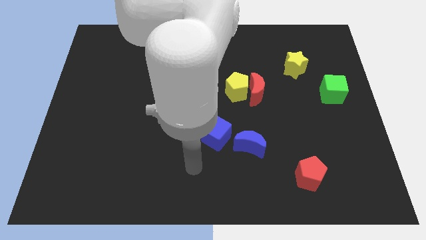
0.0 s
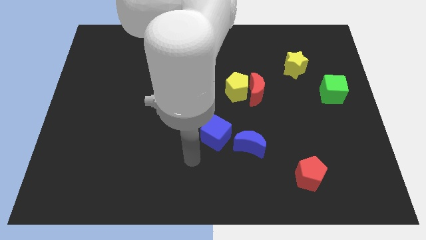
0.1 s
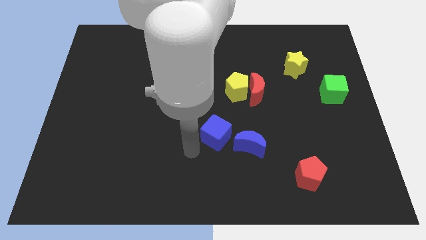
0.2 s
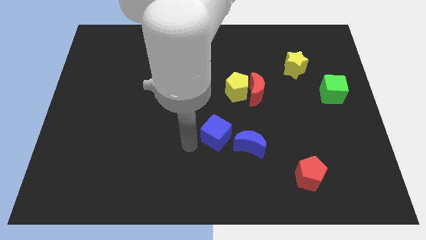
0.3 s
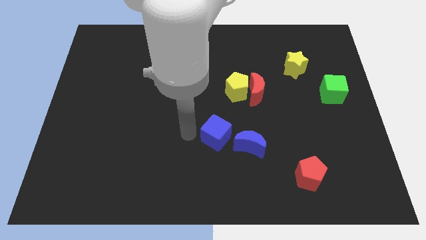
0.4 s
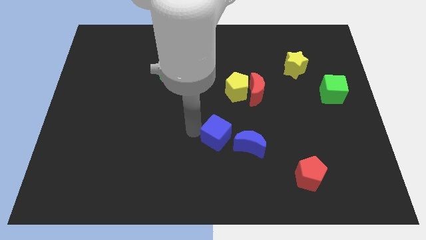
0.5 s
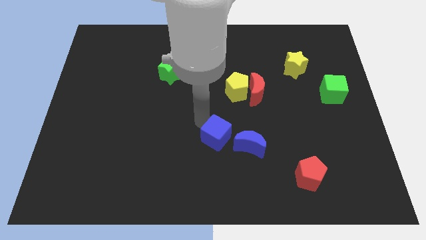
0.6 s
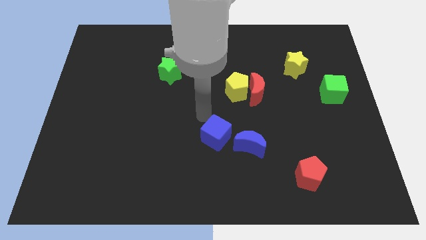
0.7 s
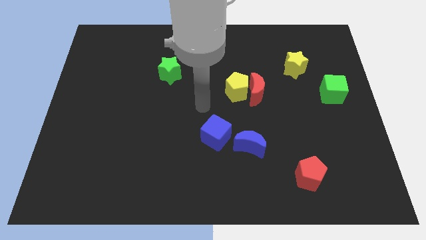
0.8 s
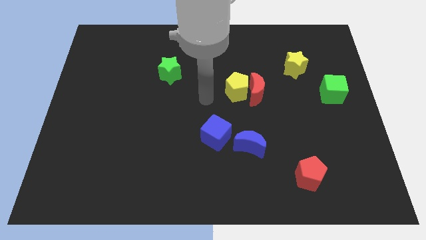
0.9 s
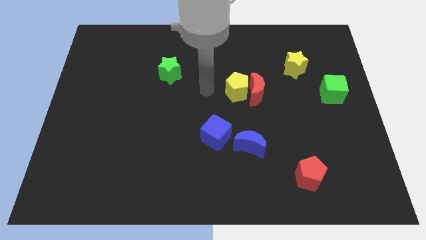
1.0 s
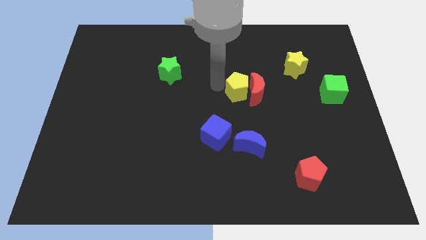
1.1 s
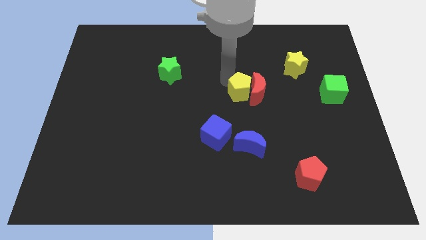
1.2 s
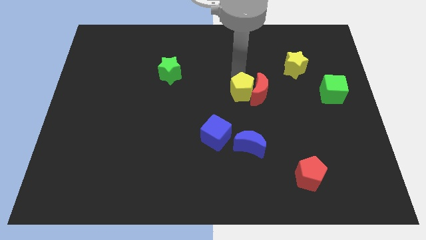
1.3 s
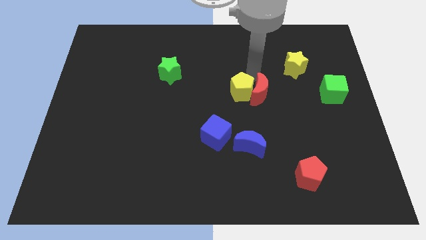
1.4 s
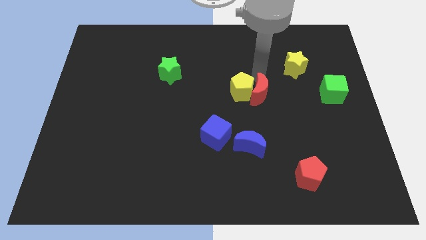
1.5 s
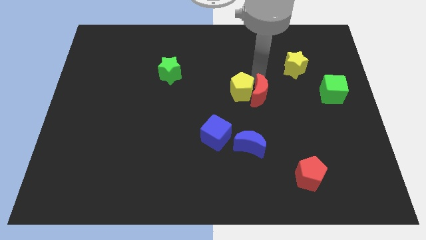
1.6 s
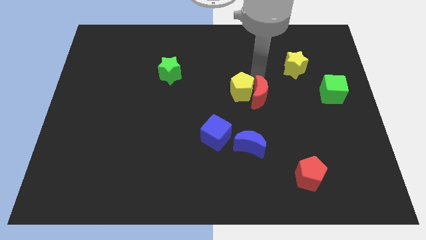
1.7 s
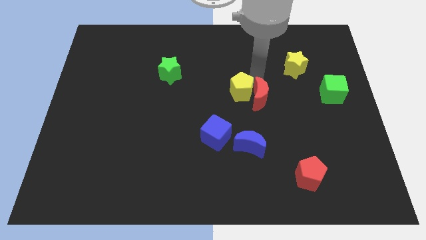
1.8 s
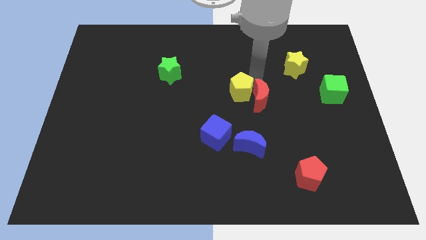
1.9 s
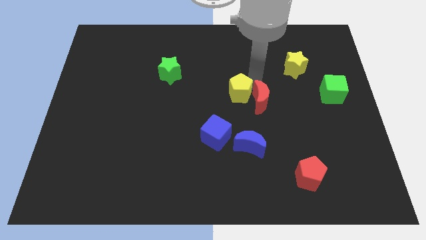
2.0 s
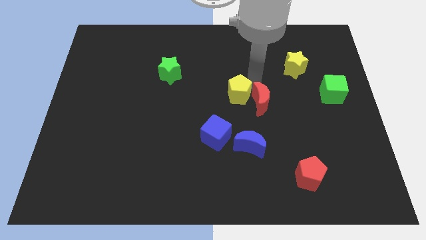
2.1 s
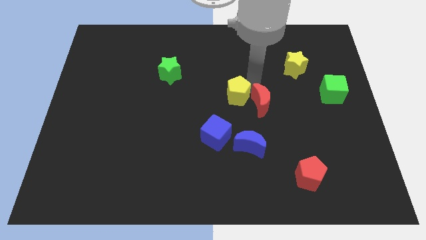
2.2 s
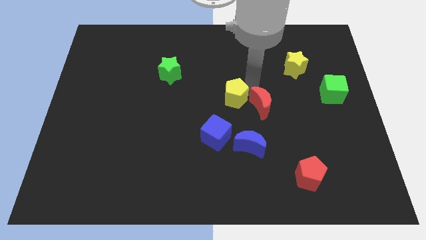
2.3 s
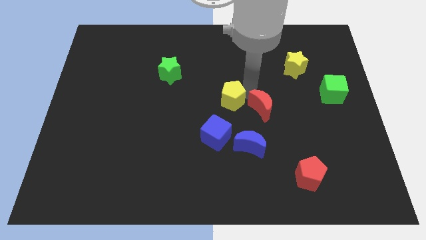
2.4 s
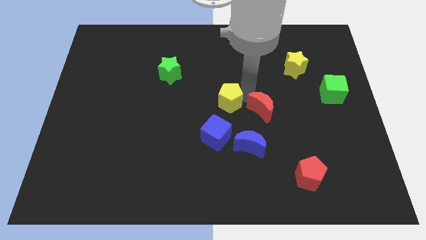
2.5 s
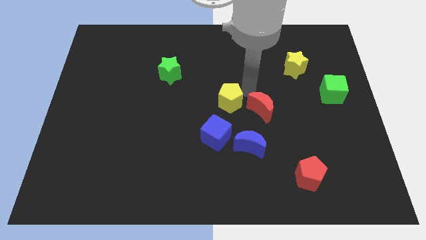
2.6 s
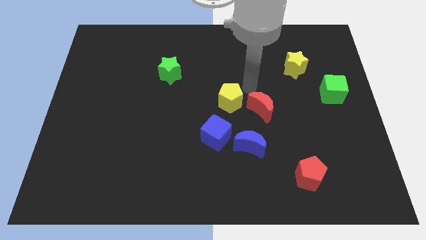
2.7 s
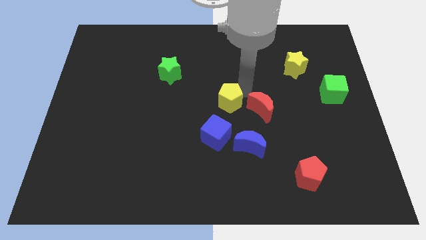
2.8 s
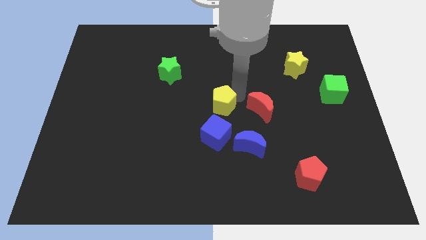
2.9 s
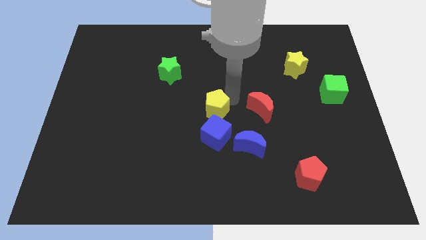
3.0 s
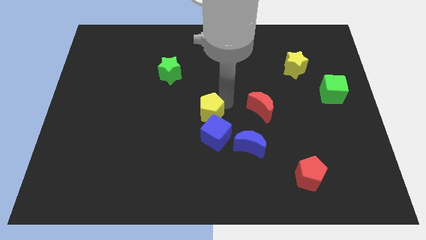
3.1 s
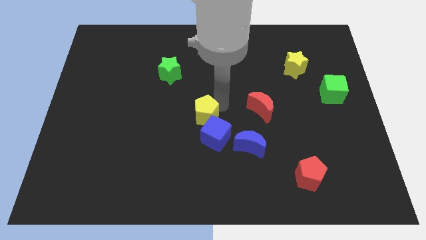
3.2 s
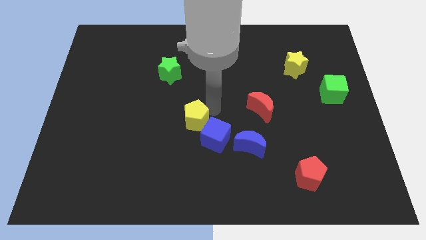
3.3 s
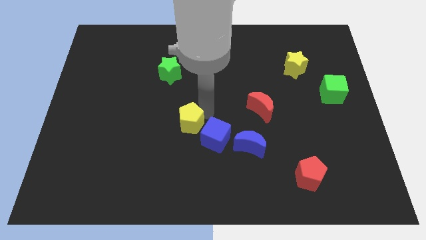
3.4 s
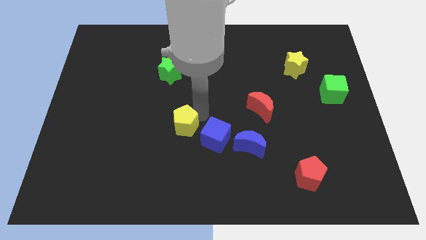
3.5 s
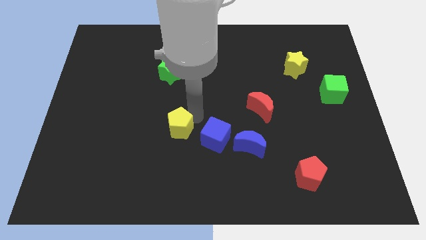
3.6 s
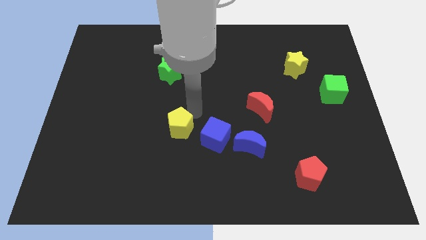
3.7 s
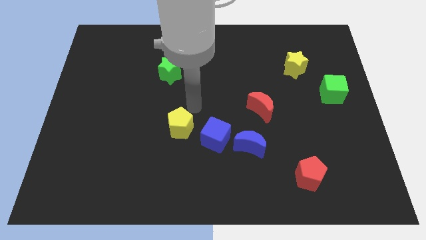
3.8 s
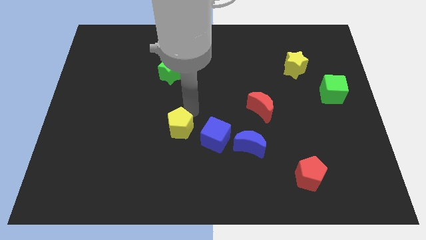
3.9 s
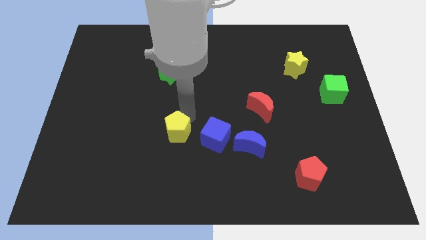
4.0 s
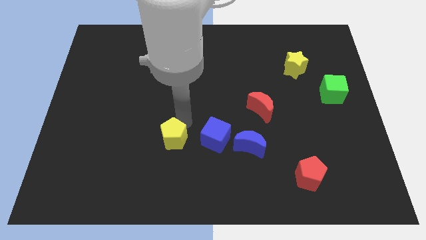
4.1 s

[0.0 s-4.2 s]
push the yellow pentagon diagonally downwards and left

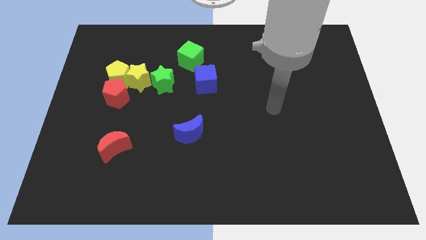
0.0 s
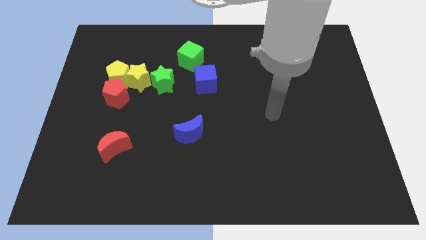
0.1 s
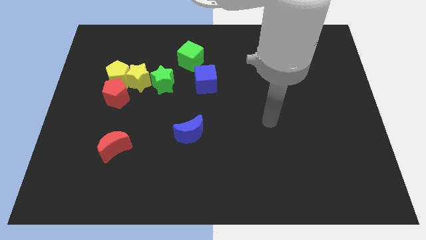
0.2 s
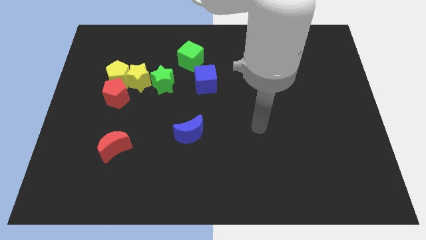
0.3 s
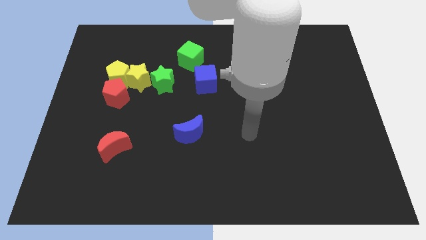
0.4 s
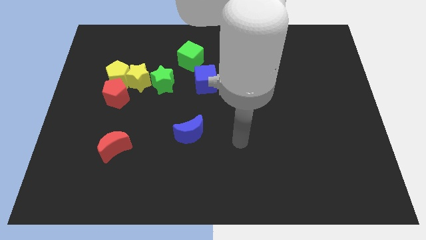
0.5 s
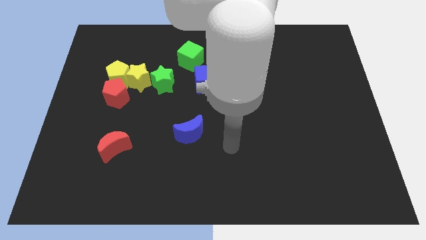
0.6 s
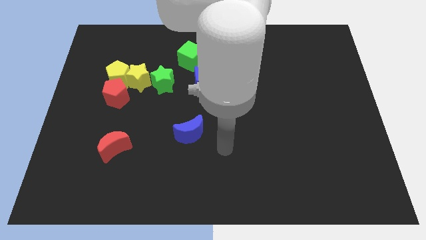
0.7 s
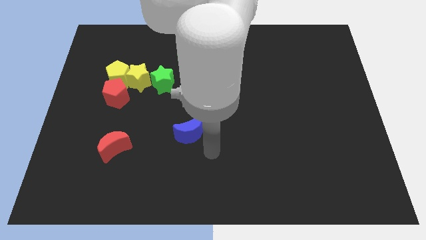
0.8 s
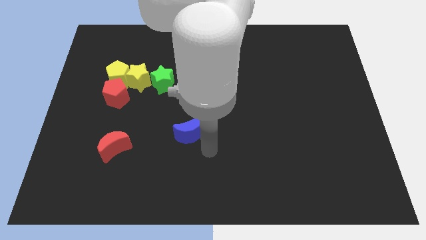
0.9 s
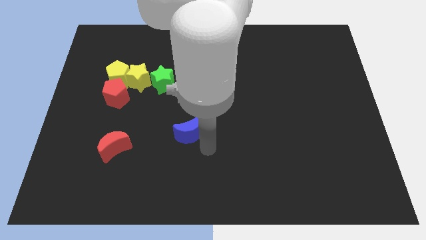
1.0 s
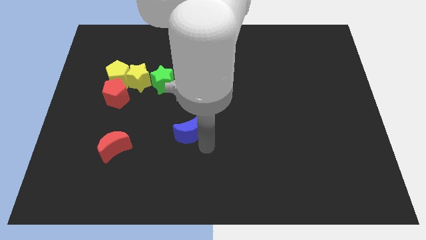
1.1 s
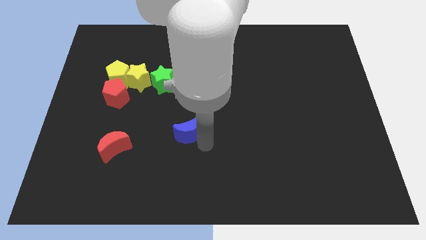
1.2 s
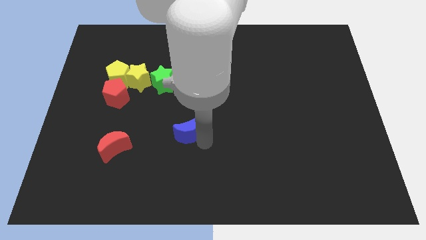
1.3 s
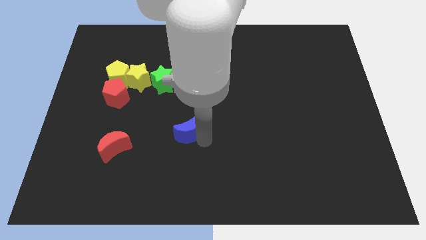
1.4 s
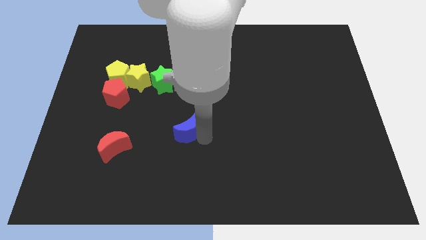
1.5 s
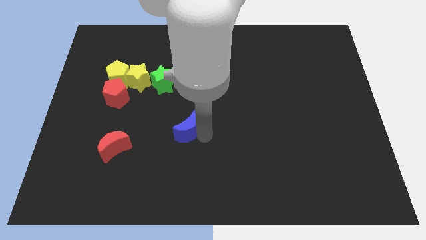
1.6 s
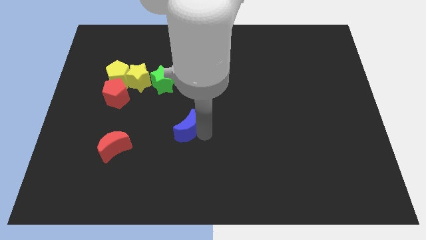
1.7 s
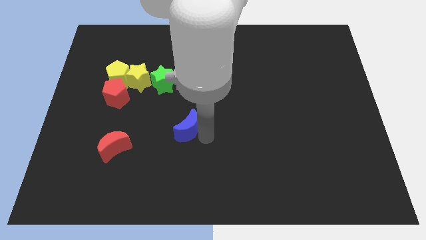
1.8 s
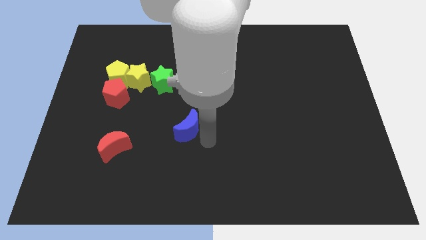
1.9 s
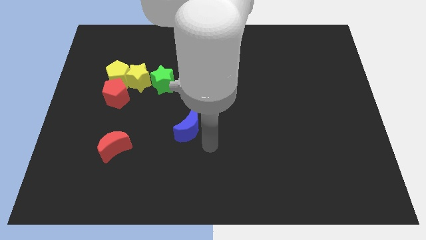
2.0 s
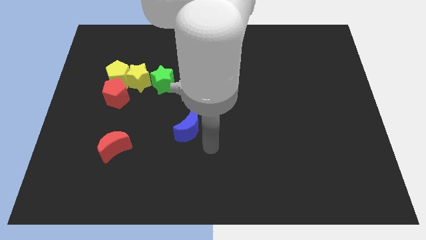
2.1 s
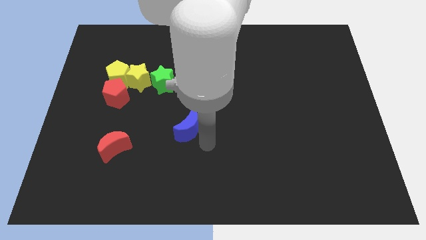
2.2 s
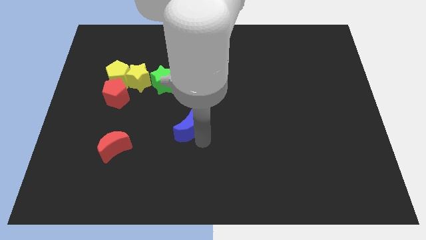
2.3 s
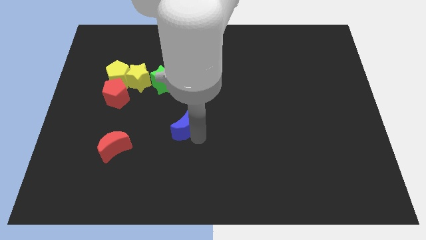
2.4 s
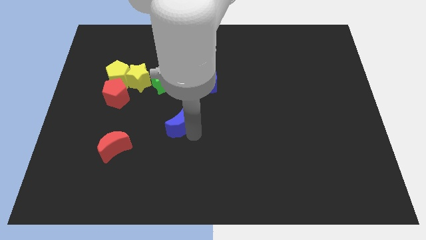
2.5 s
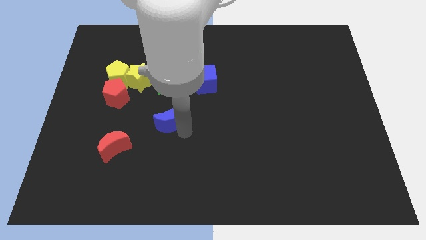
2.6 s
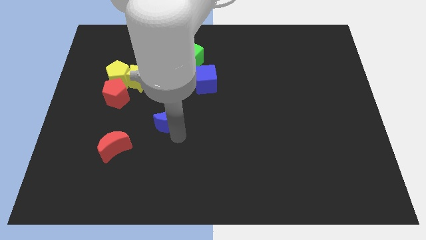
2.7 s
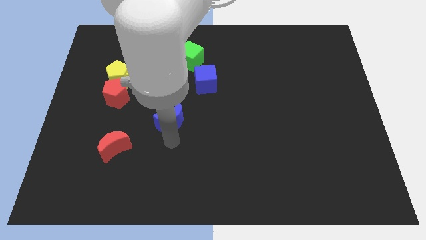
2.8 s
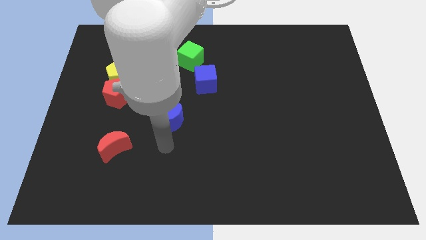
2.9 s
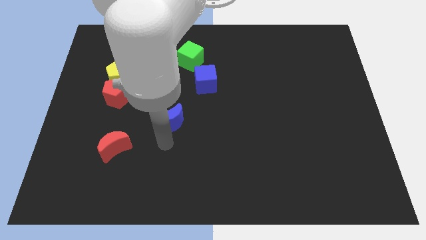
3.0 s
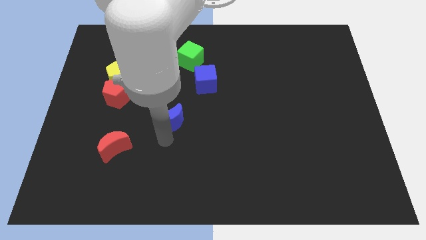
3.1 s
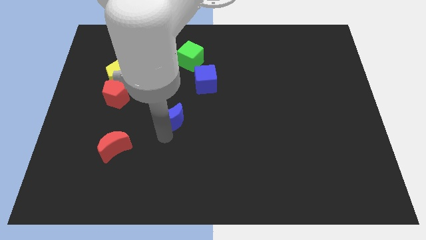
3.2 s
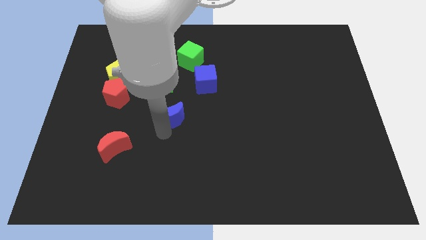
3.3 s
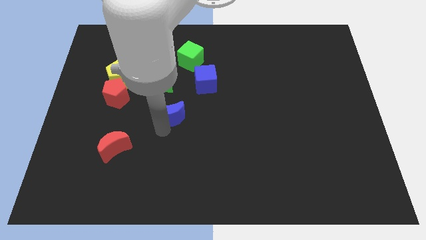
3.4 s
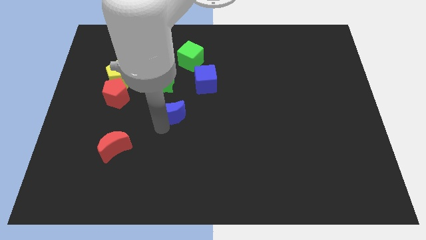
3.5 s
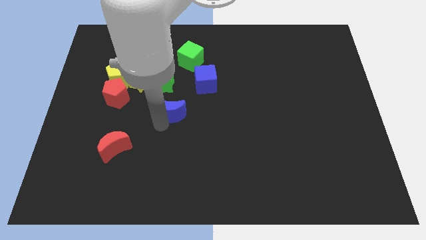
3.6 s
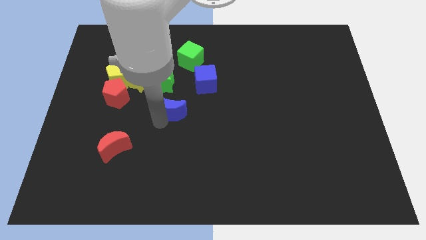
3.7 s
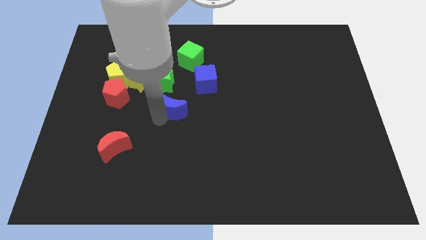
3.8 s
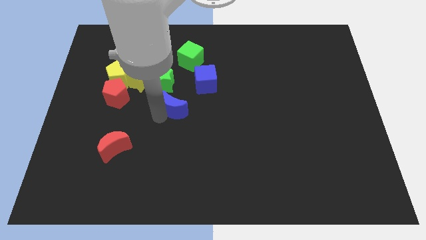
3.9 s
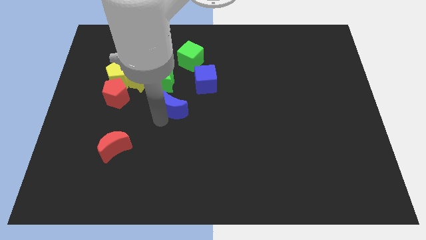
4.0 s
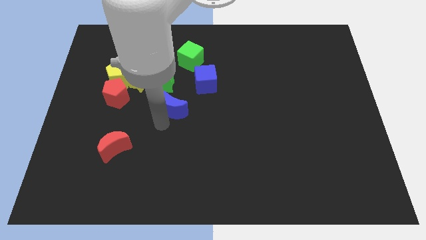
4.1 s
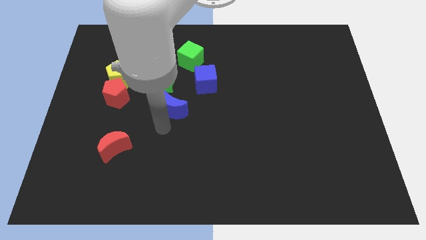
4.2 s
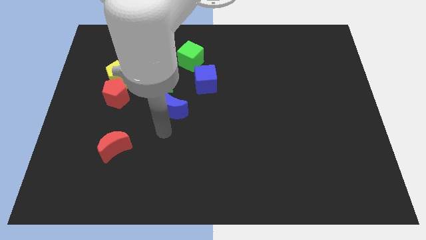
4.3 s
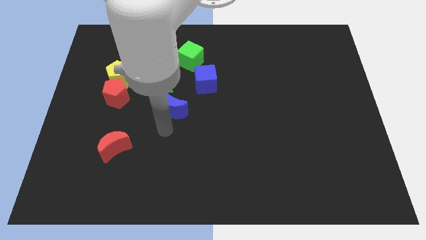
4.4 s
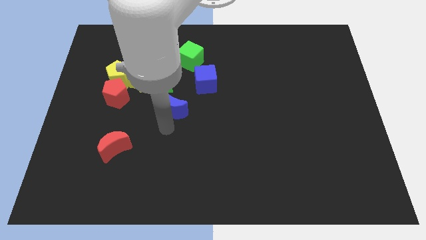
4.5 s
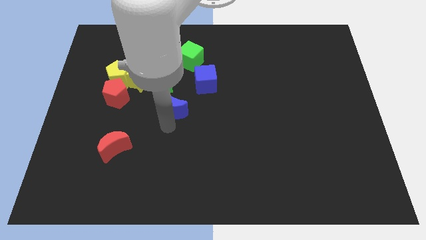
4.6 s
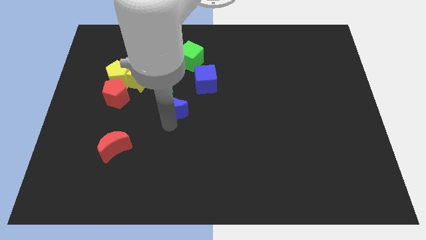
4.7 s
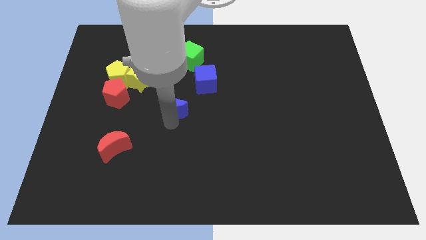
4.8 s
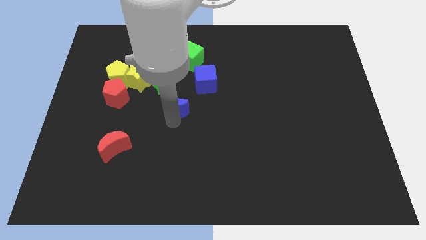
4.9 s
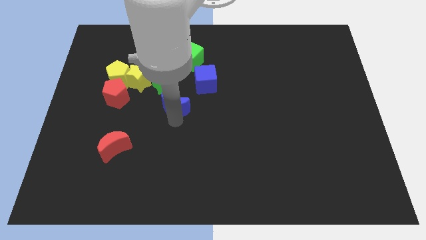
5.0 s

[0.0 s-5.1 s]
push the blue moon a little upwards
